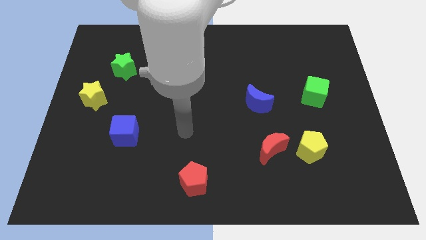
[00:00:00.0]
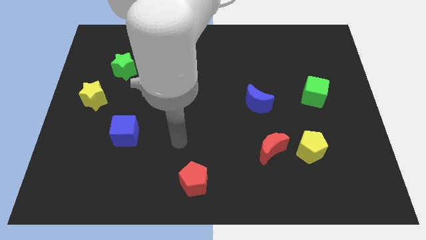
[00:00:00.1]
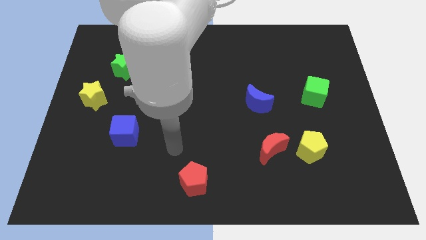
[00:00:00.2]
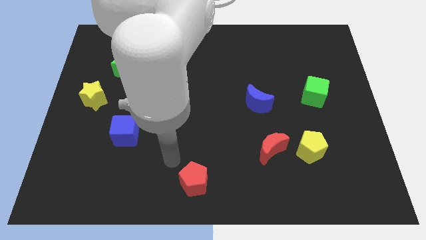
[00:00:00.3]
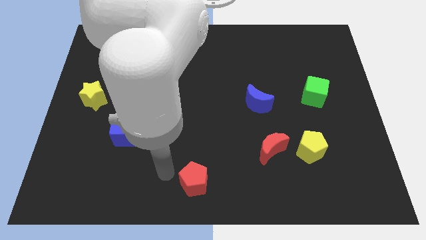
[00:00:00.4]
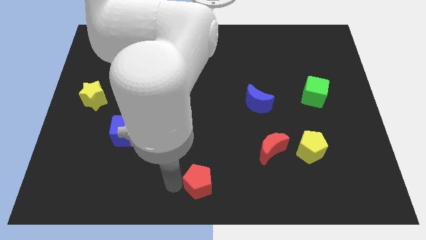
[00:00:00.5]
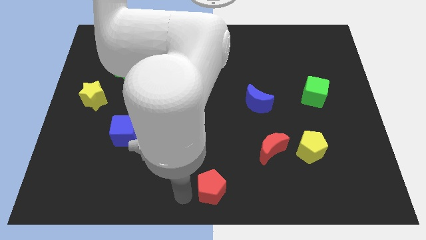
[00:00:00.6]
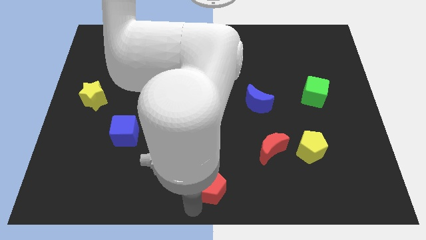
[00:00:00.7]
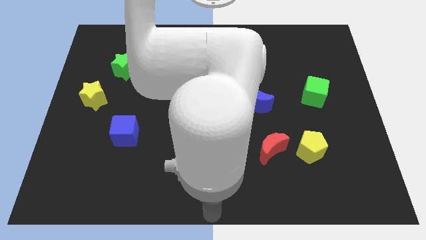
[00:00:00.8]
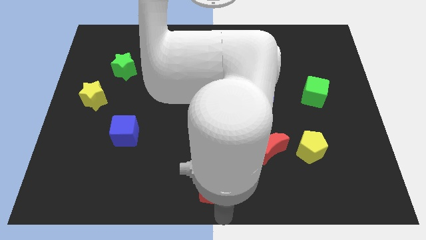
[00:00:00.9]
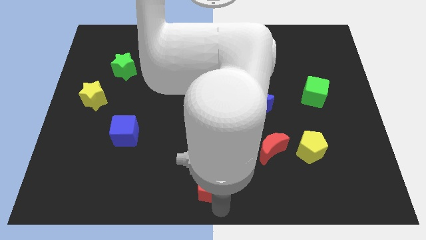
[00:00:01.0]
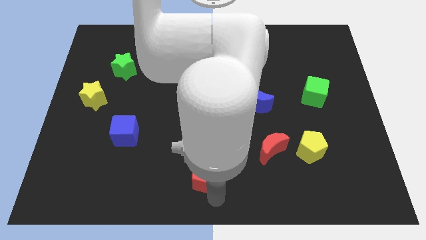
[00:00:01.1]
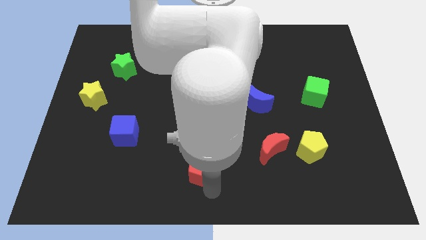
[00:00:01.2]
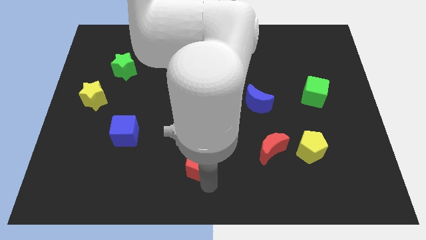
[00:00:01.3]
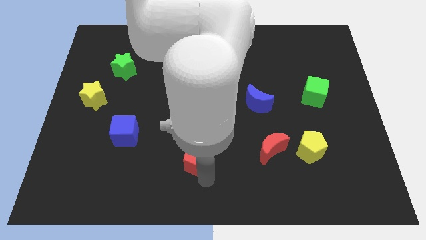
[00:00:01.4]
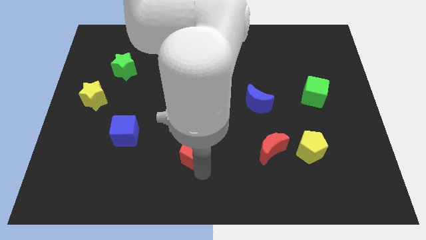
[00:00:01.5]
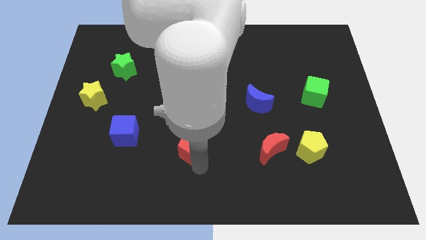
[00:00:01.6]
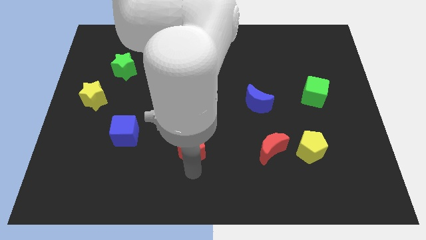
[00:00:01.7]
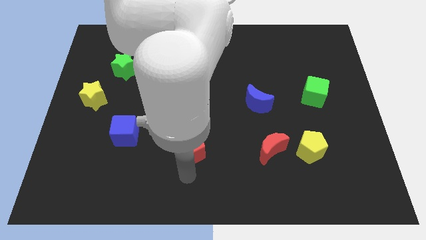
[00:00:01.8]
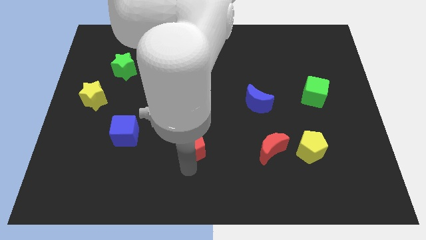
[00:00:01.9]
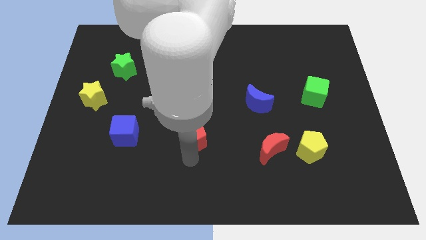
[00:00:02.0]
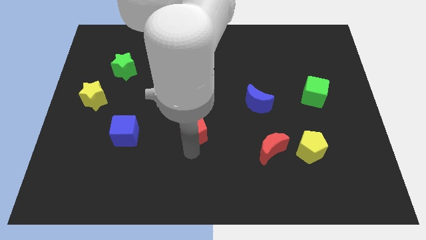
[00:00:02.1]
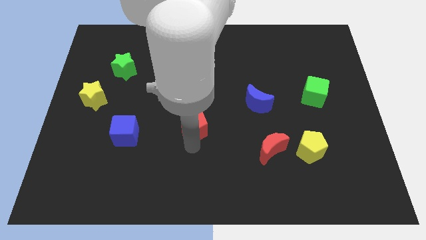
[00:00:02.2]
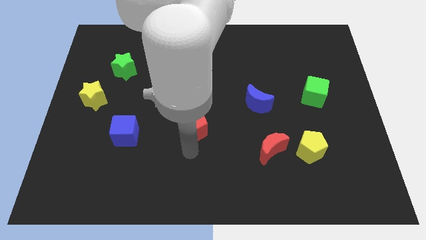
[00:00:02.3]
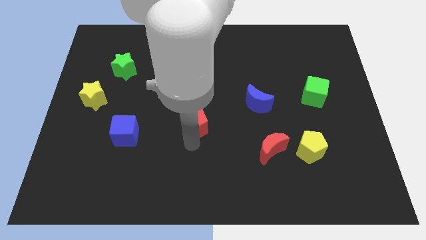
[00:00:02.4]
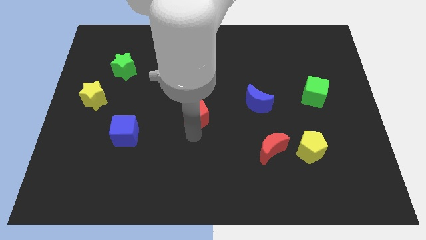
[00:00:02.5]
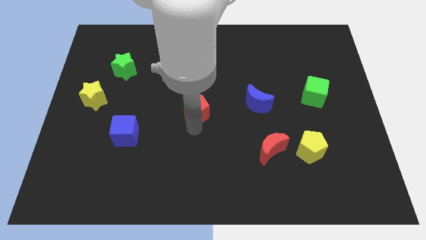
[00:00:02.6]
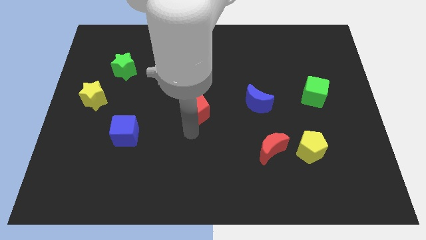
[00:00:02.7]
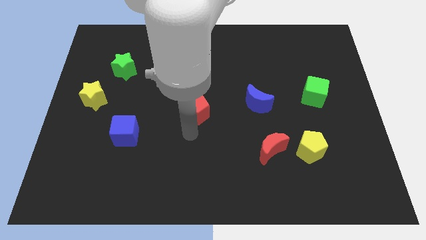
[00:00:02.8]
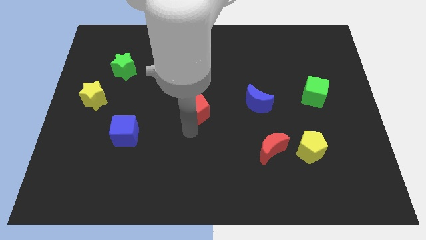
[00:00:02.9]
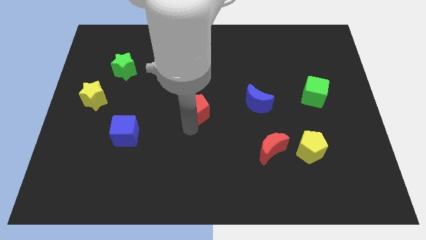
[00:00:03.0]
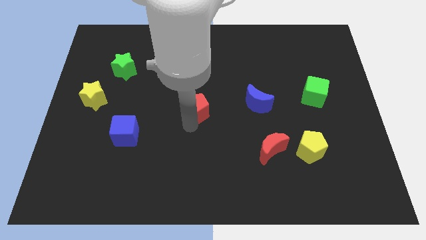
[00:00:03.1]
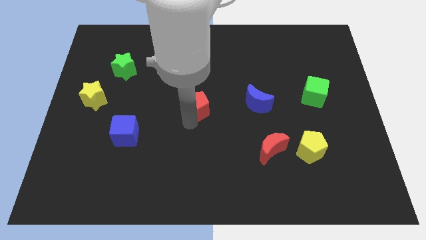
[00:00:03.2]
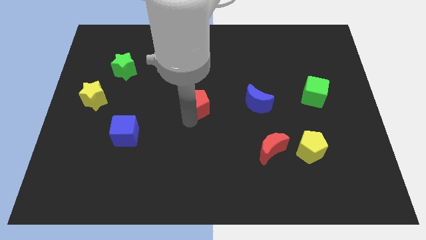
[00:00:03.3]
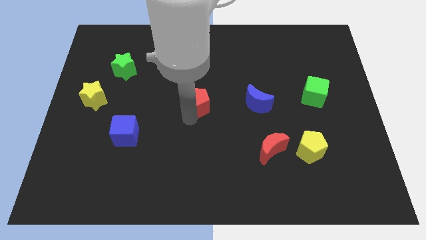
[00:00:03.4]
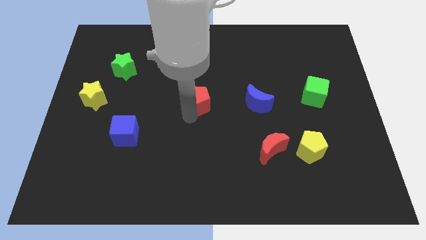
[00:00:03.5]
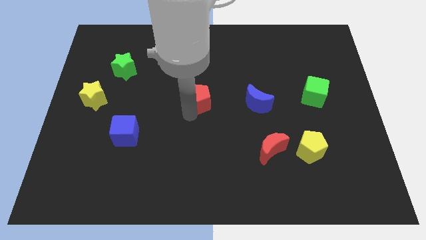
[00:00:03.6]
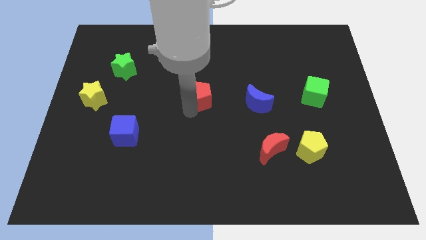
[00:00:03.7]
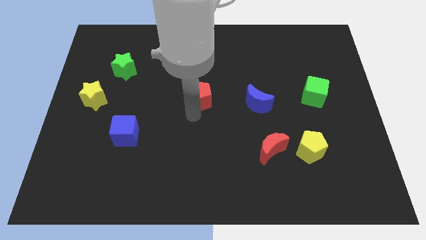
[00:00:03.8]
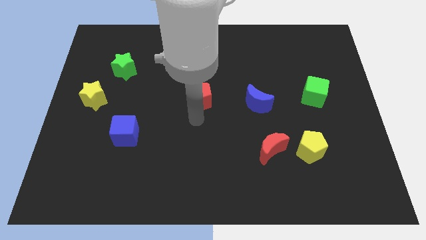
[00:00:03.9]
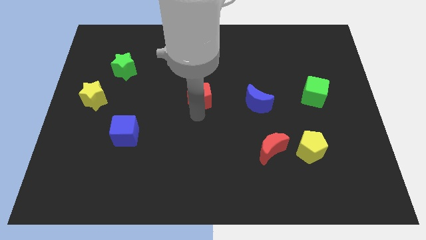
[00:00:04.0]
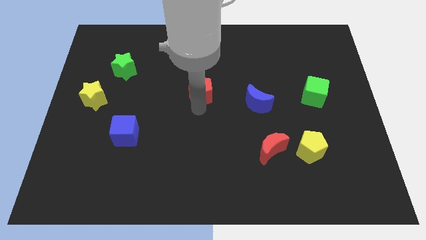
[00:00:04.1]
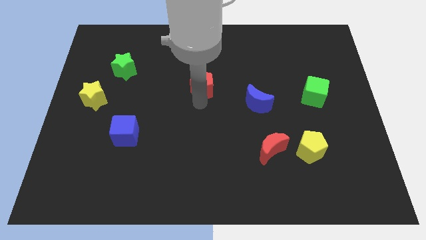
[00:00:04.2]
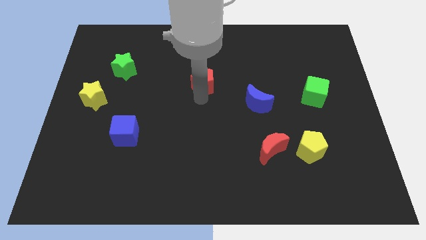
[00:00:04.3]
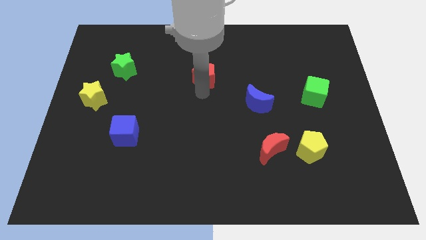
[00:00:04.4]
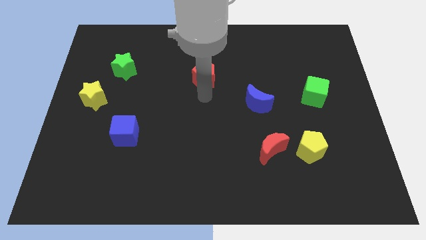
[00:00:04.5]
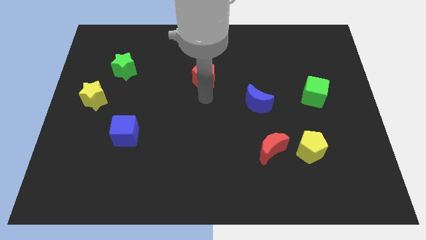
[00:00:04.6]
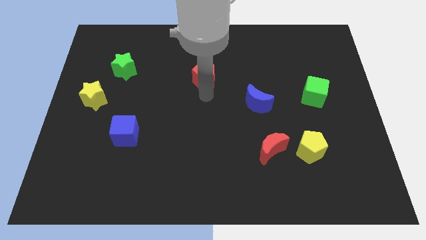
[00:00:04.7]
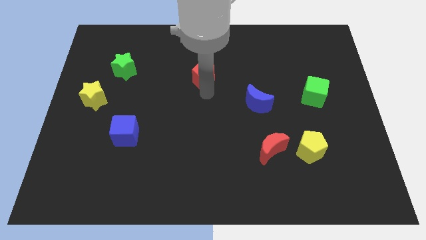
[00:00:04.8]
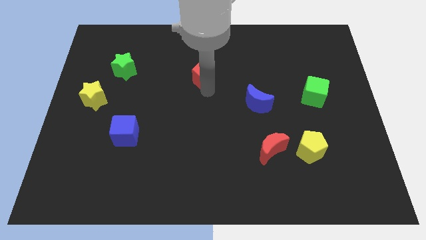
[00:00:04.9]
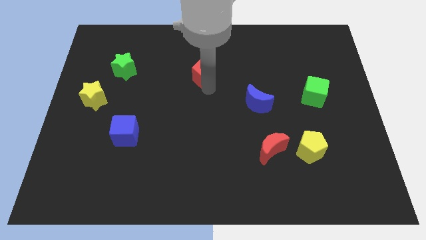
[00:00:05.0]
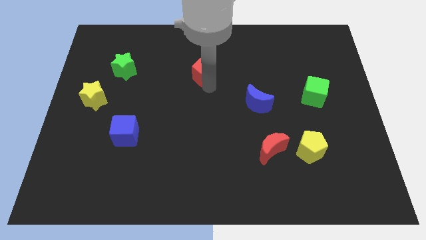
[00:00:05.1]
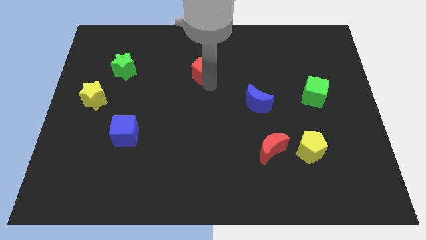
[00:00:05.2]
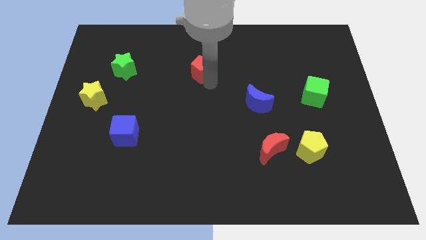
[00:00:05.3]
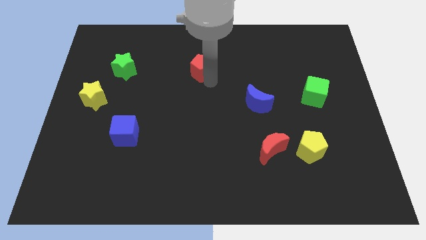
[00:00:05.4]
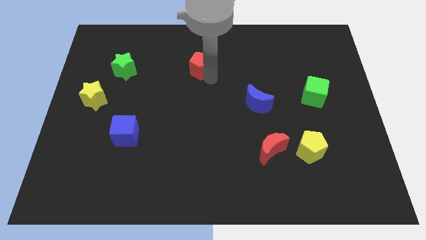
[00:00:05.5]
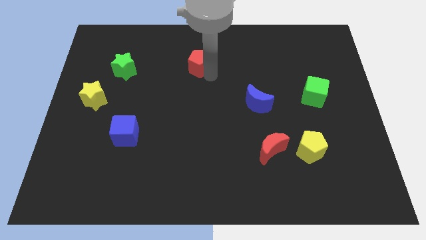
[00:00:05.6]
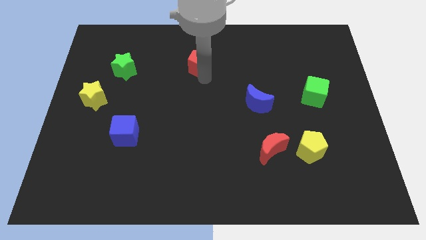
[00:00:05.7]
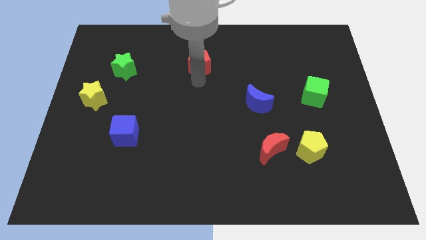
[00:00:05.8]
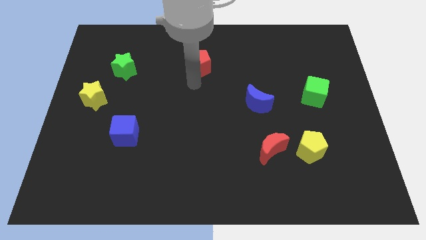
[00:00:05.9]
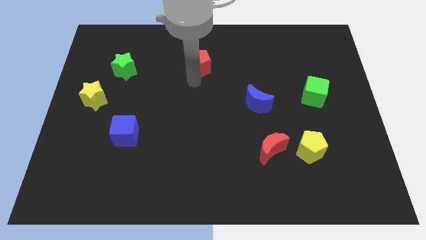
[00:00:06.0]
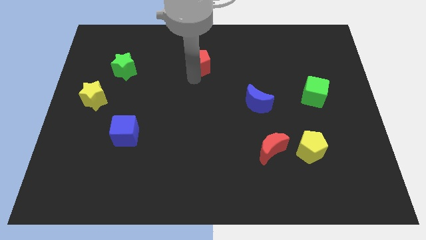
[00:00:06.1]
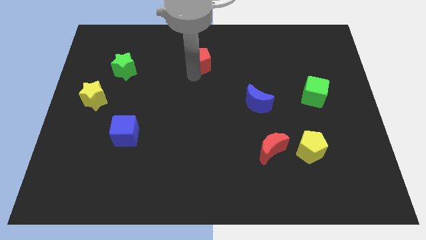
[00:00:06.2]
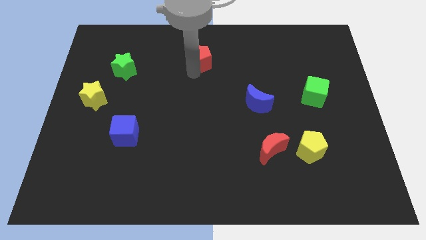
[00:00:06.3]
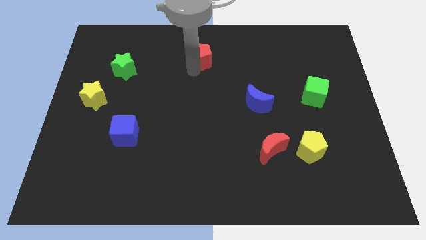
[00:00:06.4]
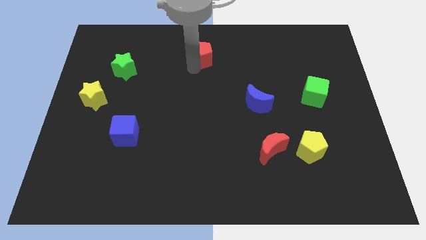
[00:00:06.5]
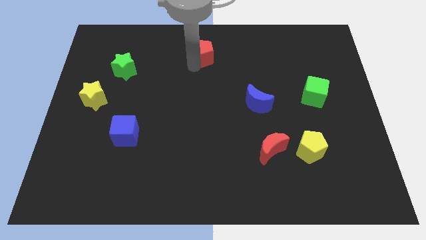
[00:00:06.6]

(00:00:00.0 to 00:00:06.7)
move the red pentagon to the top side
